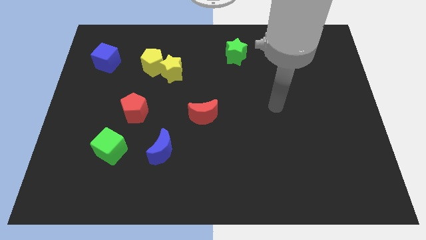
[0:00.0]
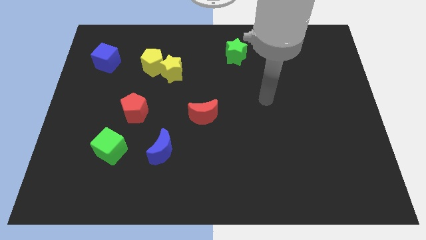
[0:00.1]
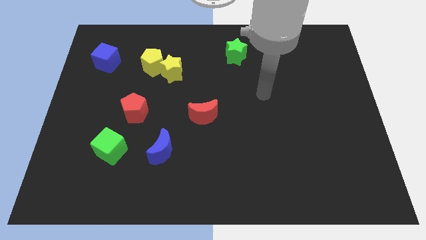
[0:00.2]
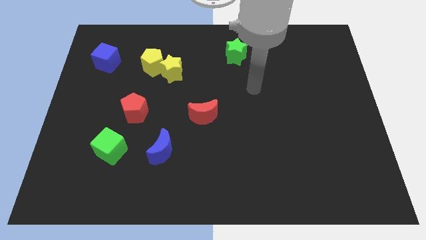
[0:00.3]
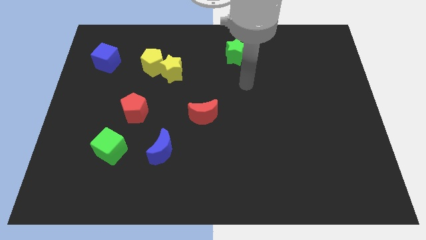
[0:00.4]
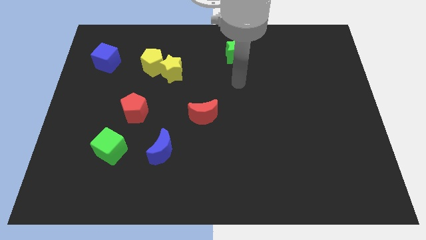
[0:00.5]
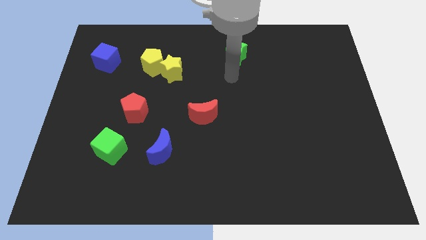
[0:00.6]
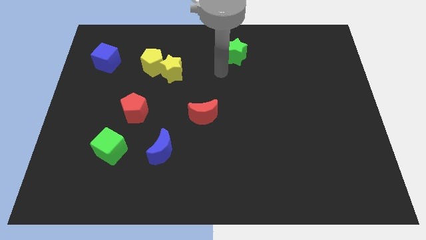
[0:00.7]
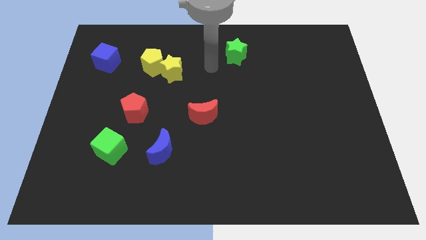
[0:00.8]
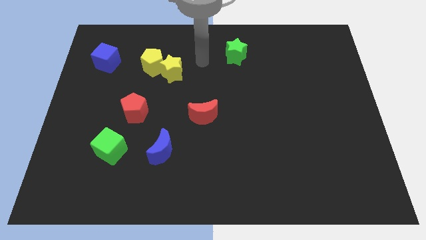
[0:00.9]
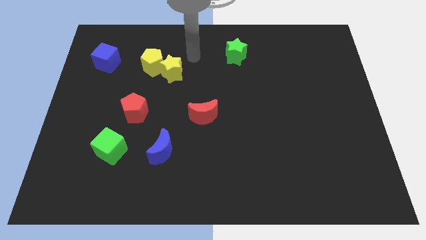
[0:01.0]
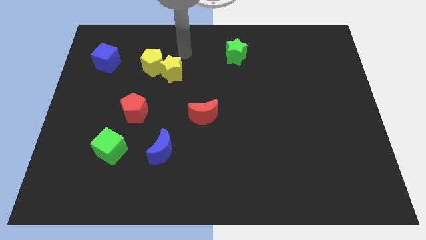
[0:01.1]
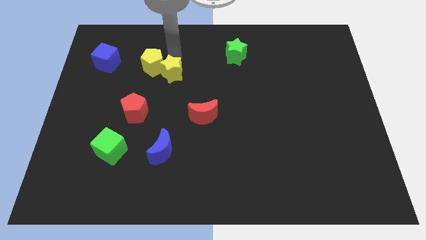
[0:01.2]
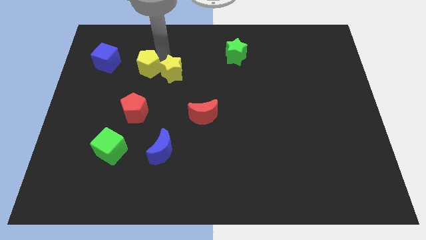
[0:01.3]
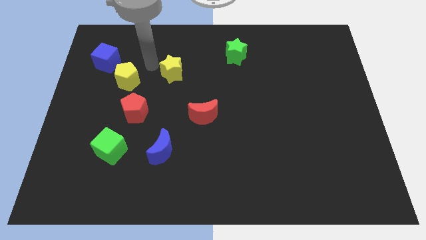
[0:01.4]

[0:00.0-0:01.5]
separate the yellow star from the yellow pentagon

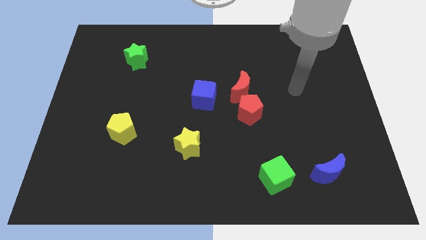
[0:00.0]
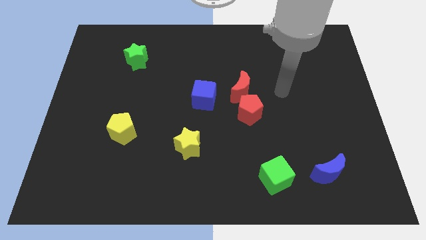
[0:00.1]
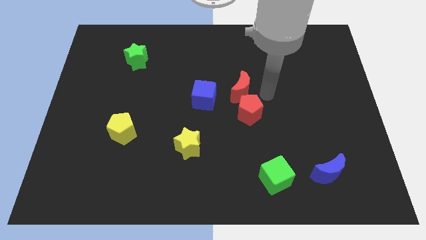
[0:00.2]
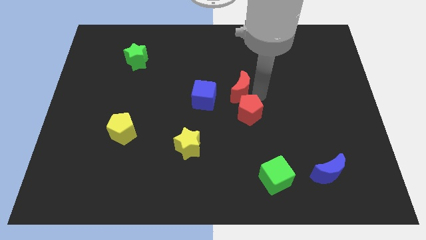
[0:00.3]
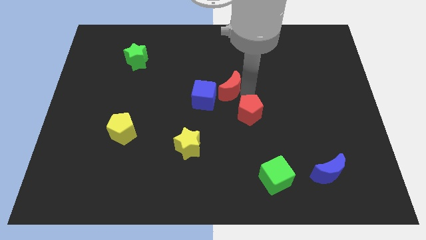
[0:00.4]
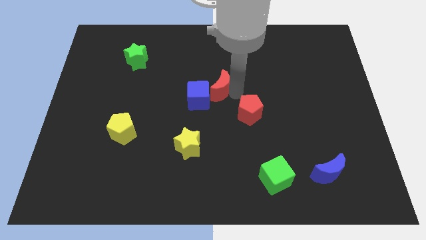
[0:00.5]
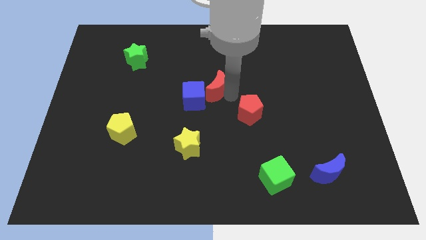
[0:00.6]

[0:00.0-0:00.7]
separate the red pentagon from the red moon

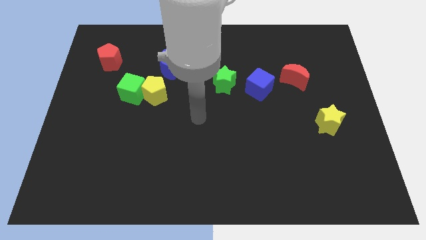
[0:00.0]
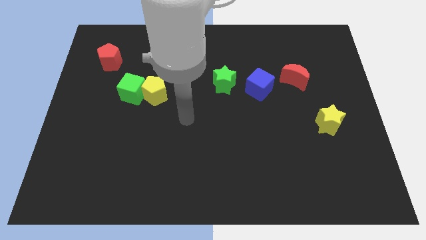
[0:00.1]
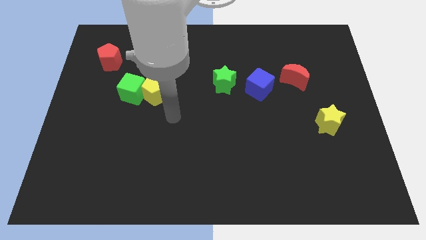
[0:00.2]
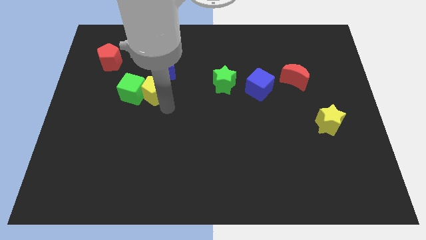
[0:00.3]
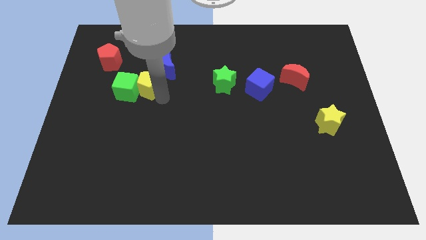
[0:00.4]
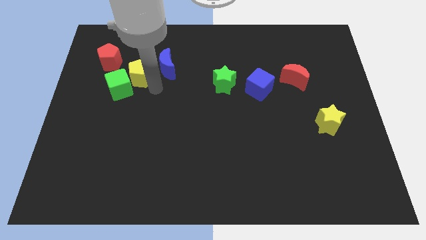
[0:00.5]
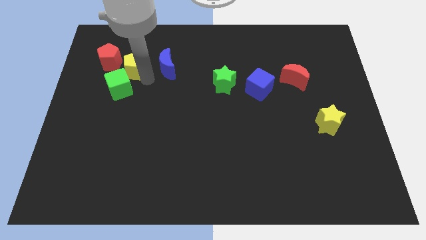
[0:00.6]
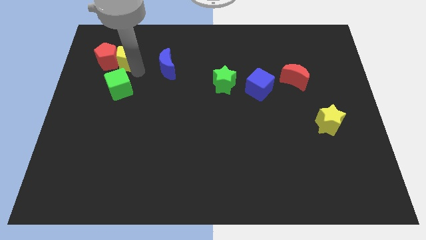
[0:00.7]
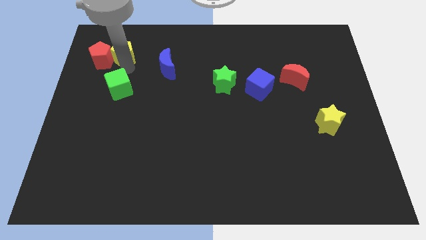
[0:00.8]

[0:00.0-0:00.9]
separate the green cube from the yellow pentagon

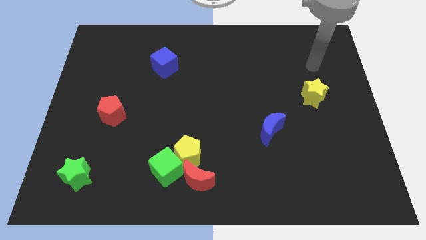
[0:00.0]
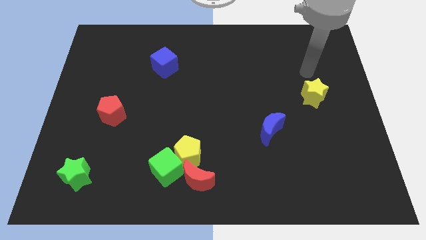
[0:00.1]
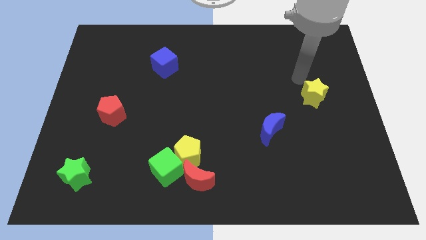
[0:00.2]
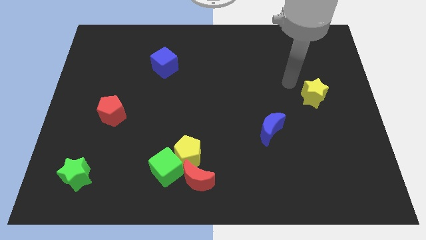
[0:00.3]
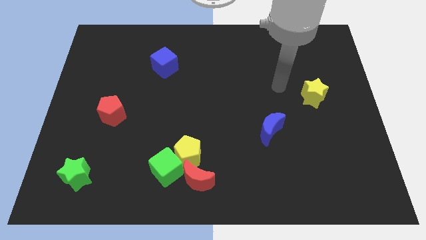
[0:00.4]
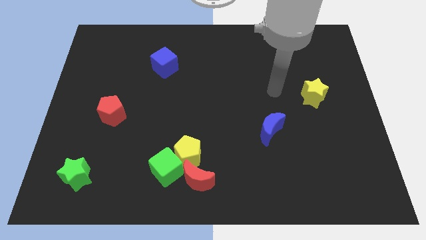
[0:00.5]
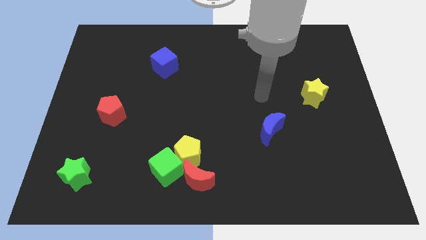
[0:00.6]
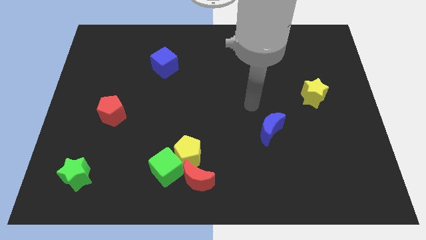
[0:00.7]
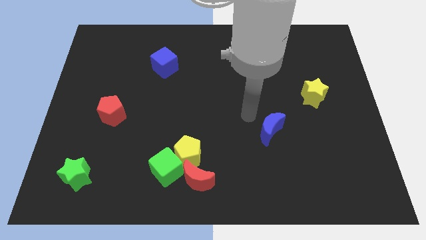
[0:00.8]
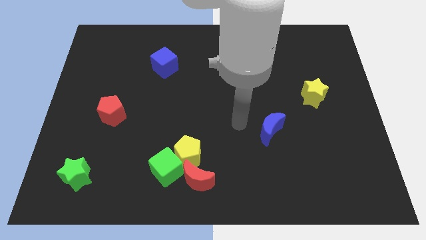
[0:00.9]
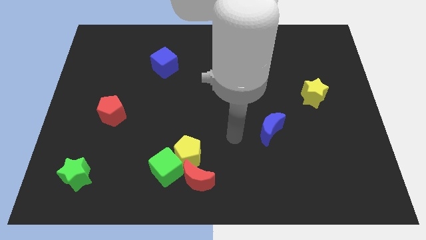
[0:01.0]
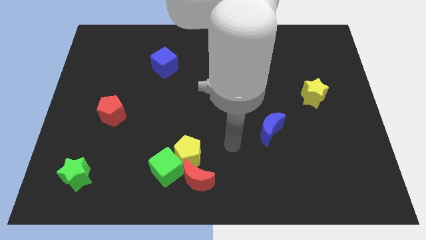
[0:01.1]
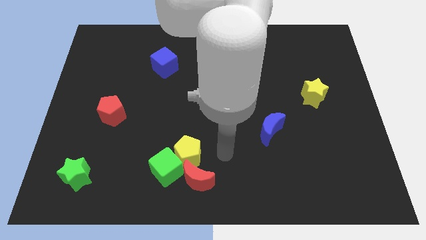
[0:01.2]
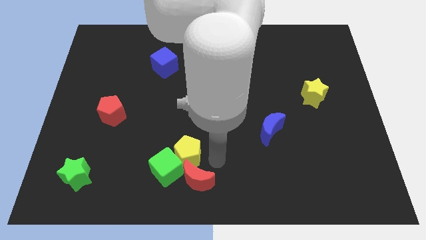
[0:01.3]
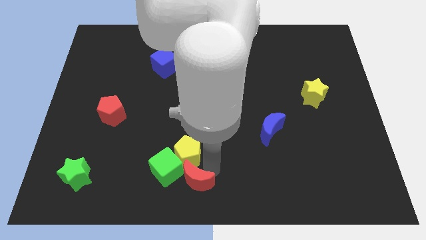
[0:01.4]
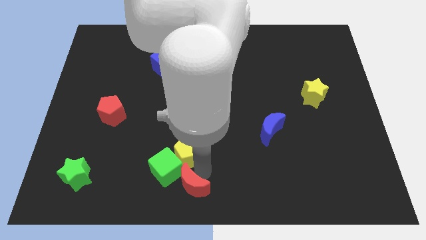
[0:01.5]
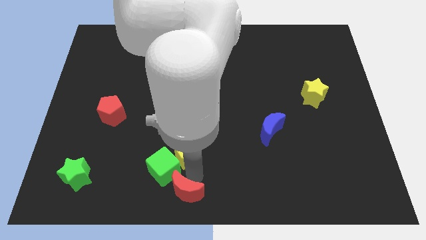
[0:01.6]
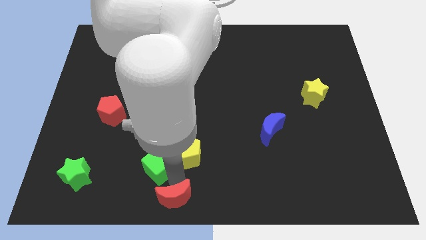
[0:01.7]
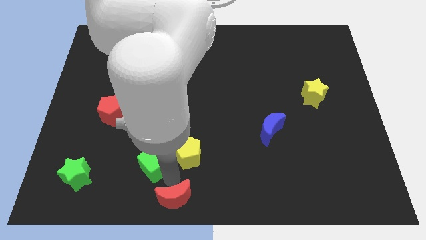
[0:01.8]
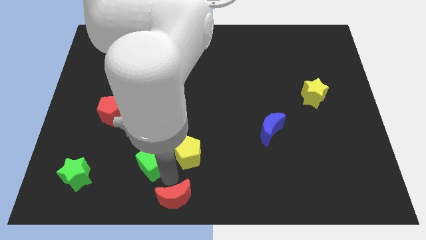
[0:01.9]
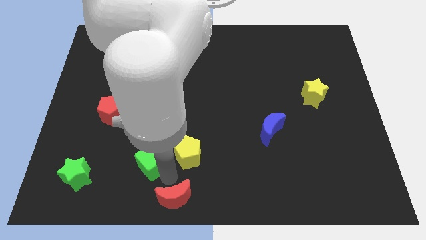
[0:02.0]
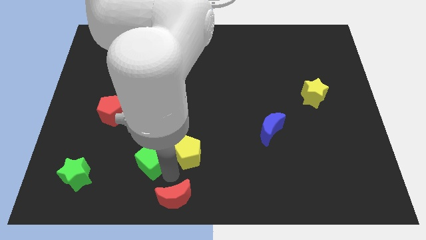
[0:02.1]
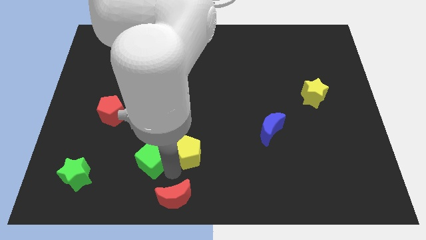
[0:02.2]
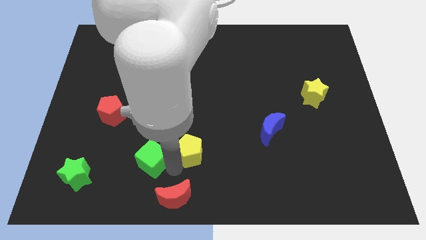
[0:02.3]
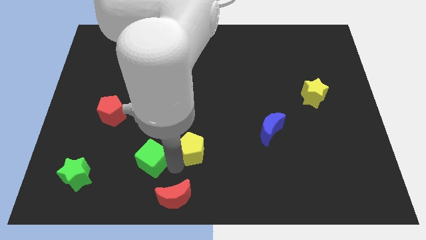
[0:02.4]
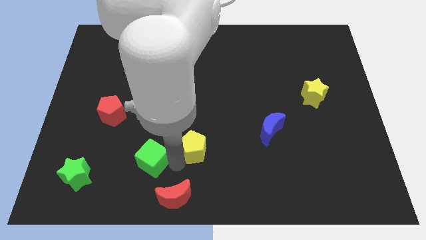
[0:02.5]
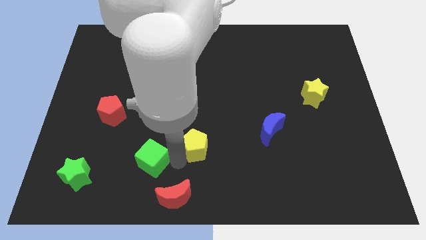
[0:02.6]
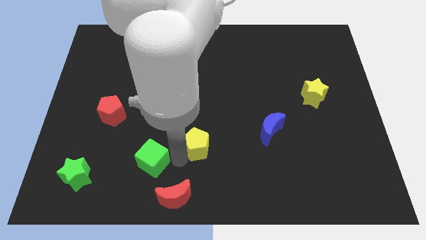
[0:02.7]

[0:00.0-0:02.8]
pull the yellow pentagon apart from the green cube and red moon

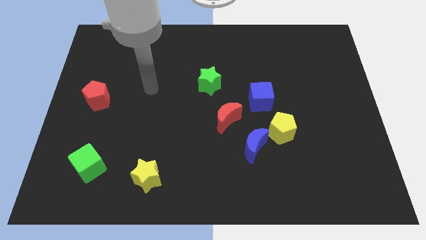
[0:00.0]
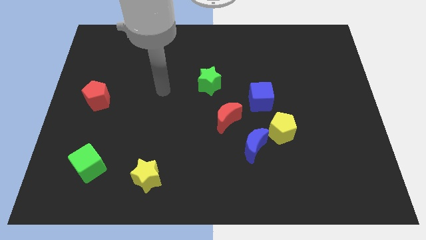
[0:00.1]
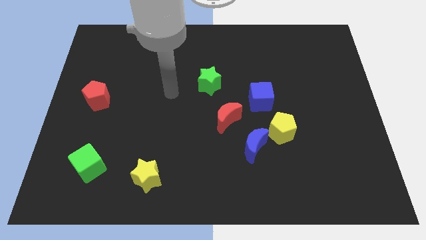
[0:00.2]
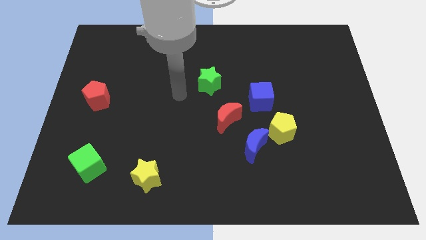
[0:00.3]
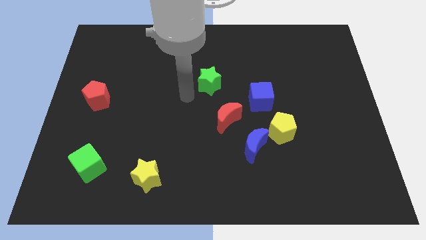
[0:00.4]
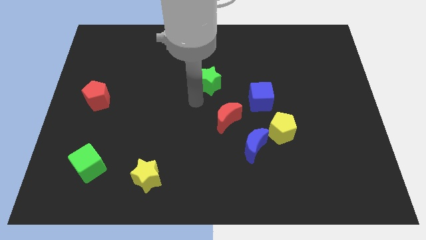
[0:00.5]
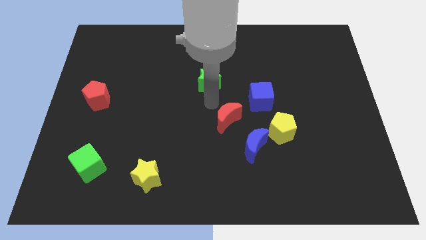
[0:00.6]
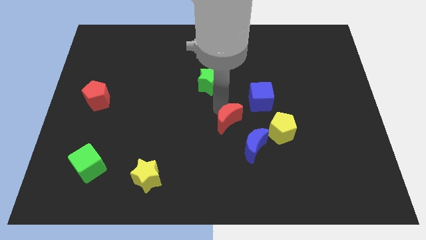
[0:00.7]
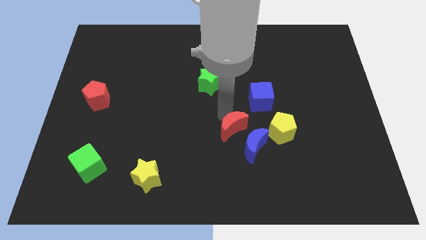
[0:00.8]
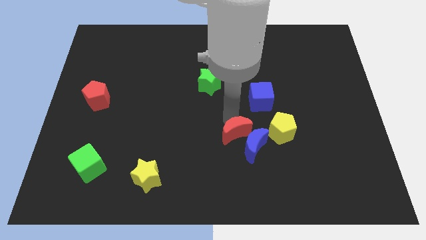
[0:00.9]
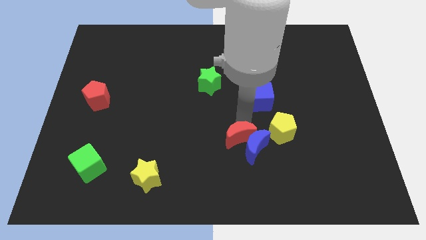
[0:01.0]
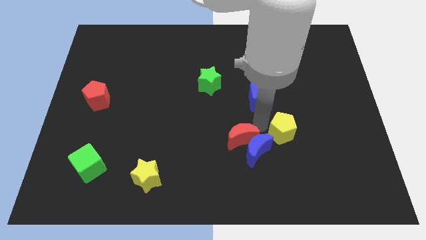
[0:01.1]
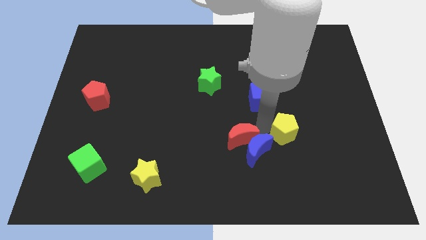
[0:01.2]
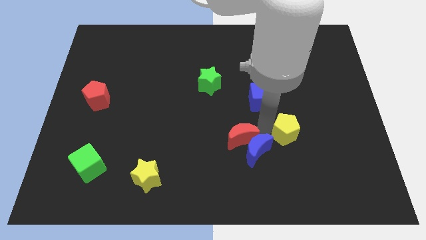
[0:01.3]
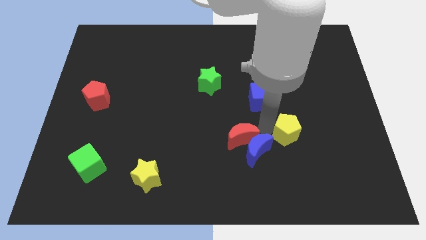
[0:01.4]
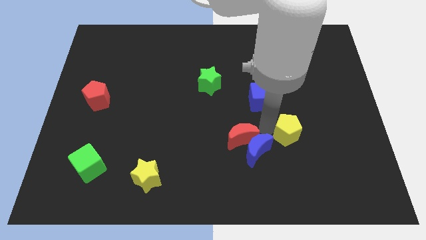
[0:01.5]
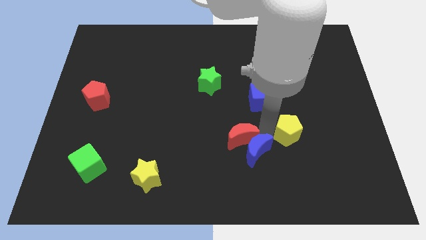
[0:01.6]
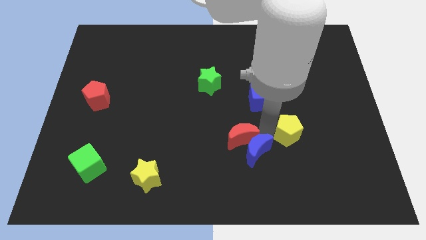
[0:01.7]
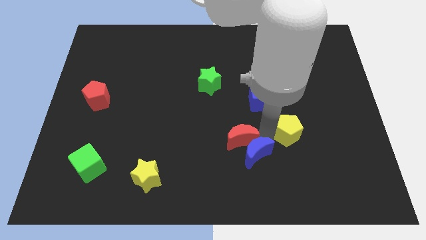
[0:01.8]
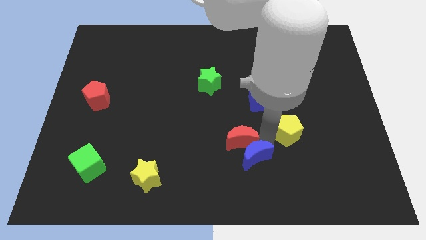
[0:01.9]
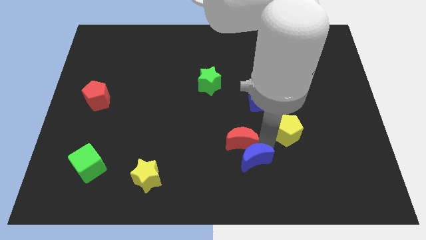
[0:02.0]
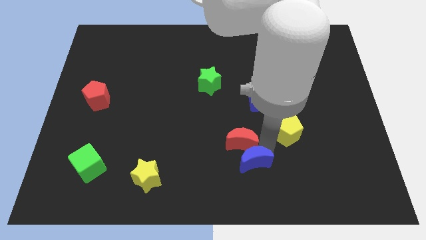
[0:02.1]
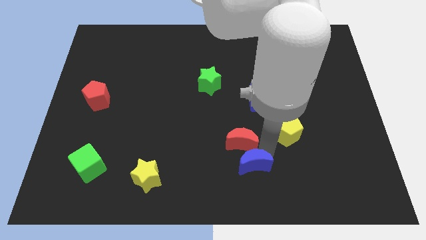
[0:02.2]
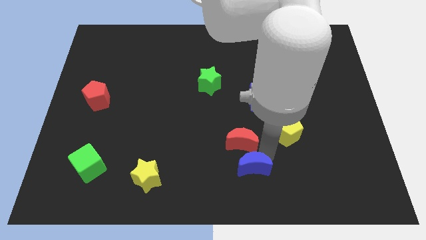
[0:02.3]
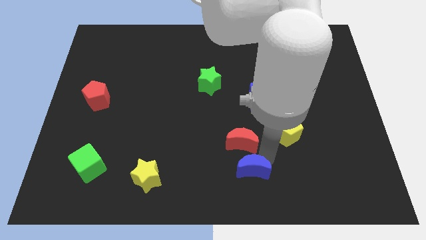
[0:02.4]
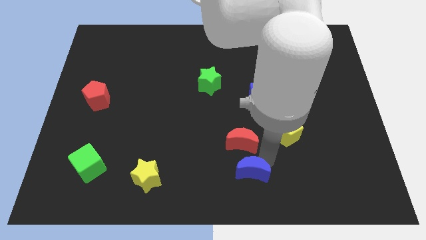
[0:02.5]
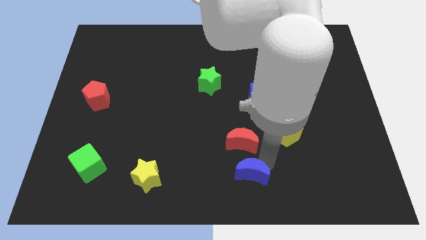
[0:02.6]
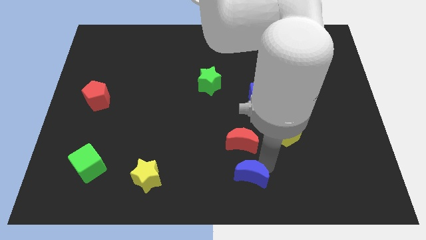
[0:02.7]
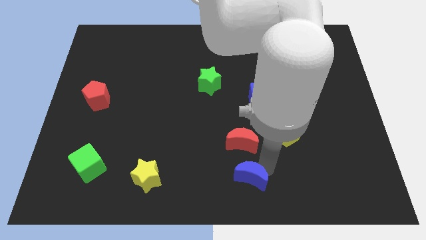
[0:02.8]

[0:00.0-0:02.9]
pull the blue moon apart from the yellow pentagon and red moon

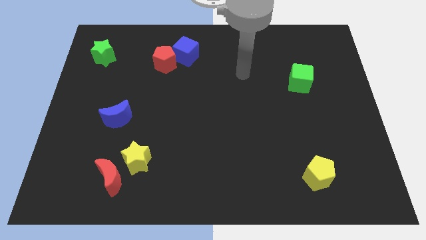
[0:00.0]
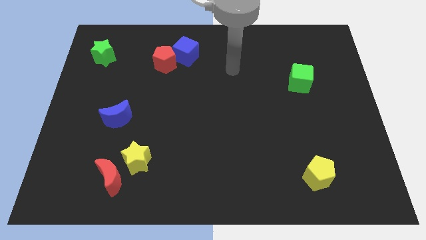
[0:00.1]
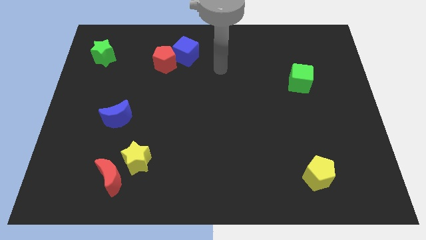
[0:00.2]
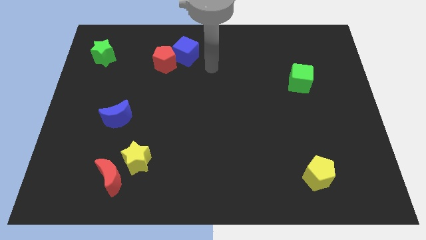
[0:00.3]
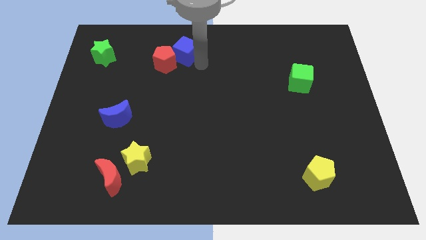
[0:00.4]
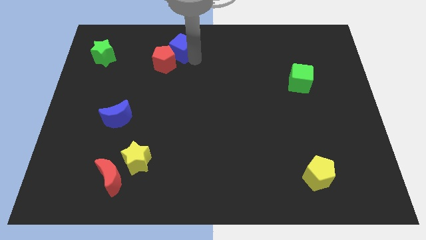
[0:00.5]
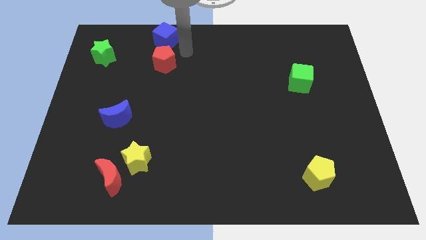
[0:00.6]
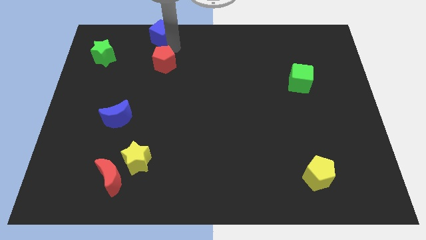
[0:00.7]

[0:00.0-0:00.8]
separate the red pentagon from the blue cube
